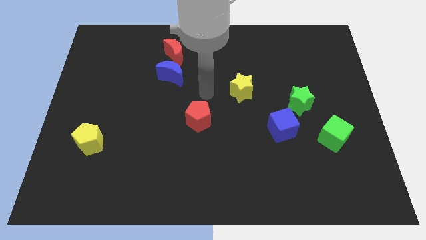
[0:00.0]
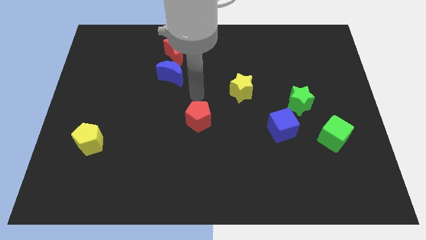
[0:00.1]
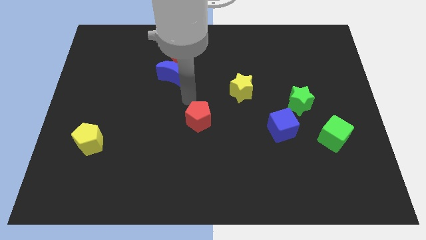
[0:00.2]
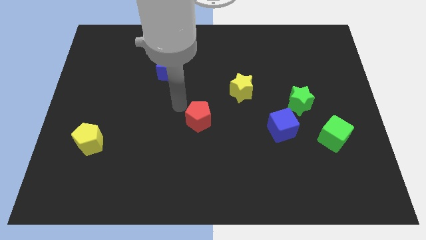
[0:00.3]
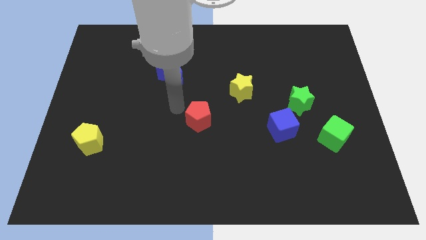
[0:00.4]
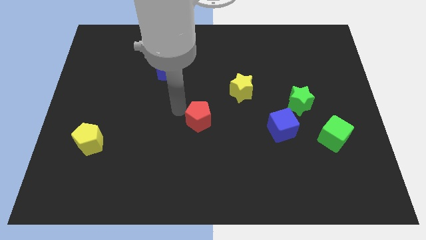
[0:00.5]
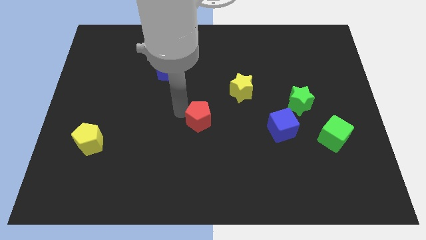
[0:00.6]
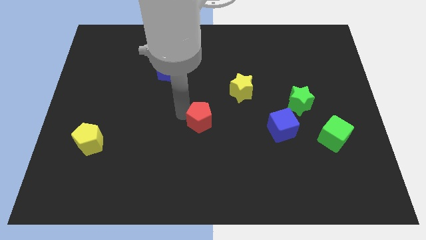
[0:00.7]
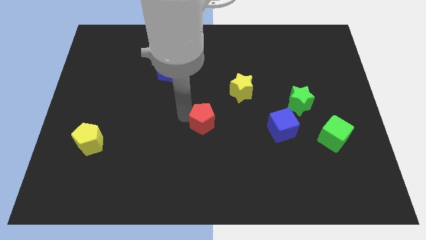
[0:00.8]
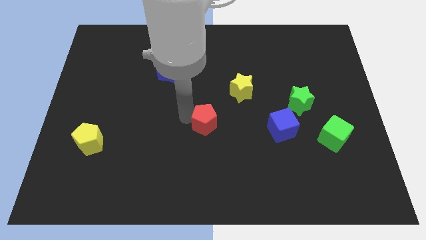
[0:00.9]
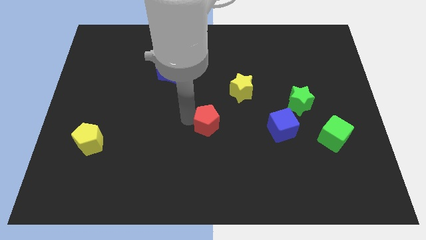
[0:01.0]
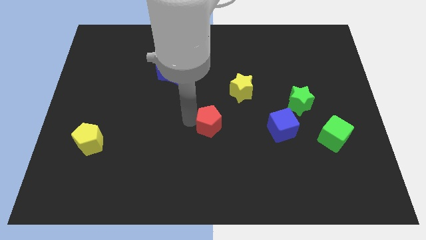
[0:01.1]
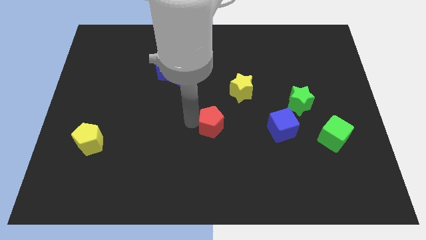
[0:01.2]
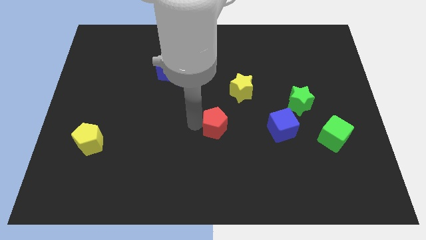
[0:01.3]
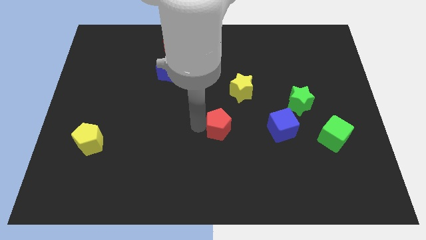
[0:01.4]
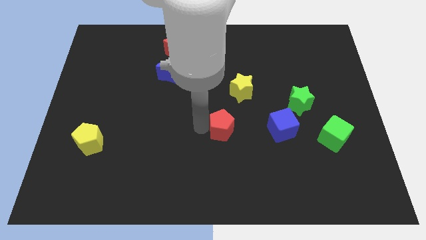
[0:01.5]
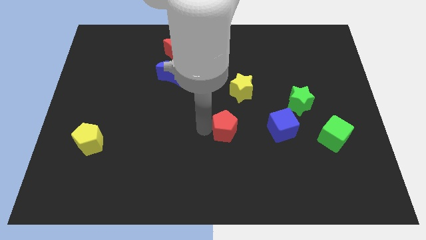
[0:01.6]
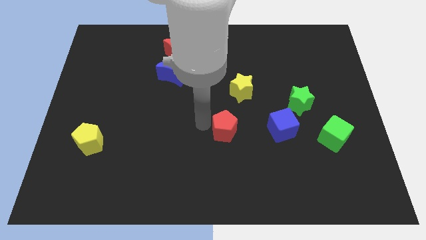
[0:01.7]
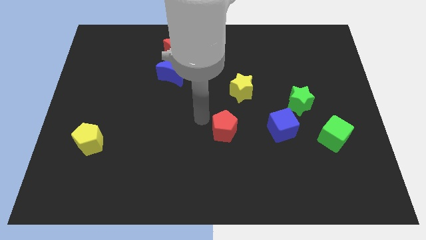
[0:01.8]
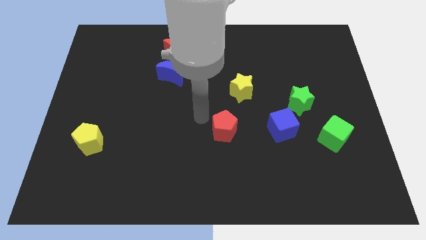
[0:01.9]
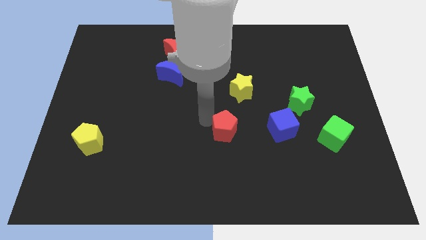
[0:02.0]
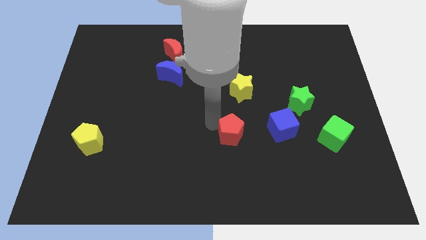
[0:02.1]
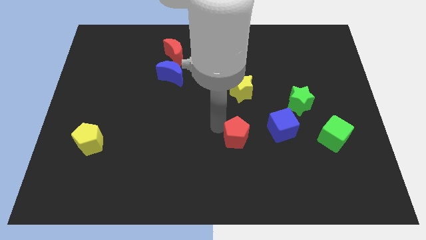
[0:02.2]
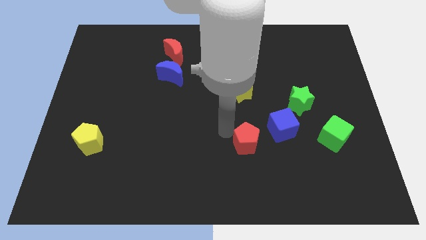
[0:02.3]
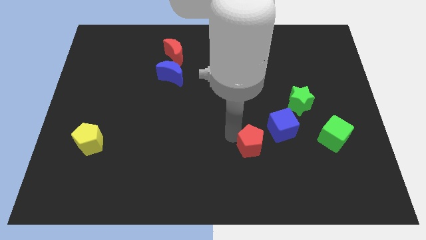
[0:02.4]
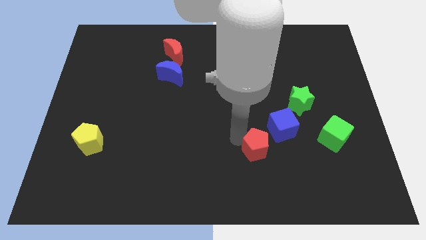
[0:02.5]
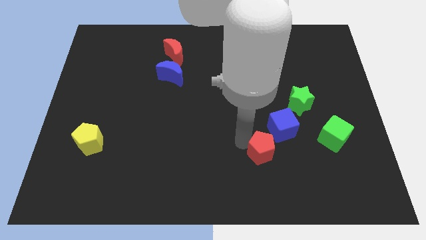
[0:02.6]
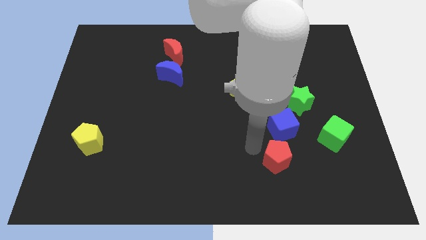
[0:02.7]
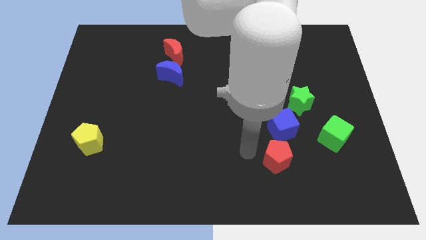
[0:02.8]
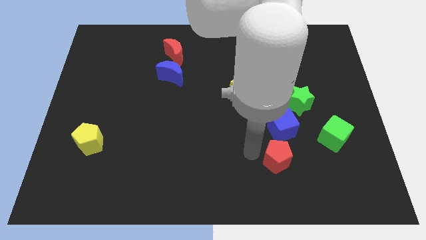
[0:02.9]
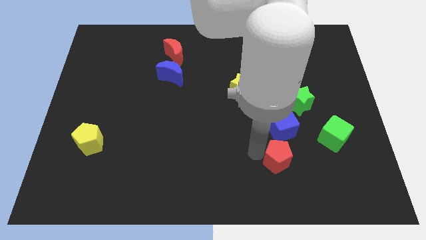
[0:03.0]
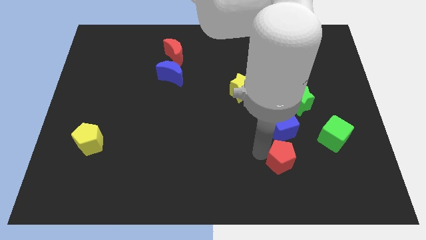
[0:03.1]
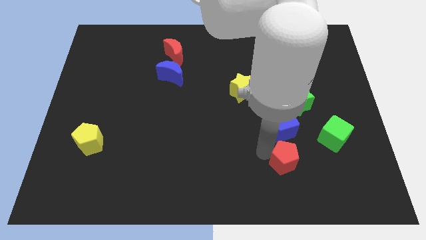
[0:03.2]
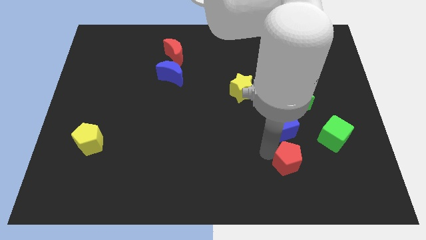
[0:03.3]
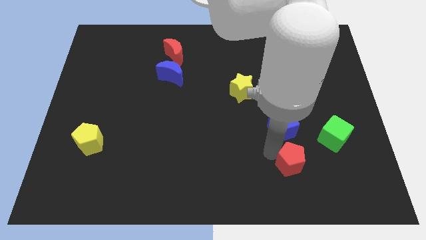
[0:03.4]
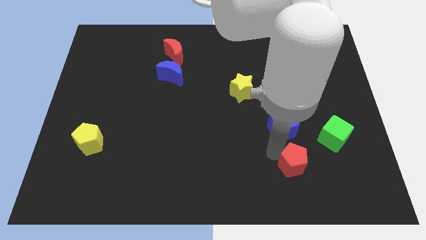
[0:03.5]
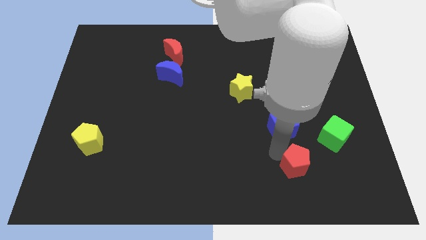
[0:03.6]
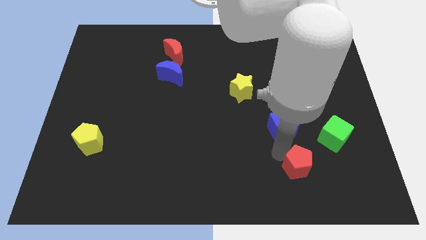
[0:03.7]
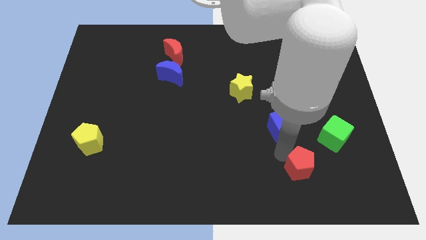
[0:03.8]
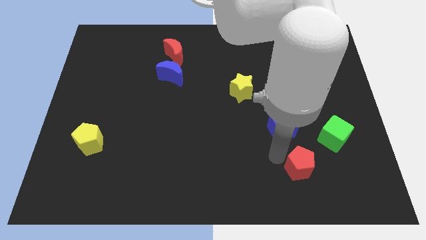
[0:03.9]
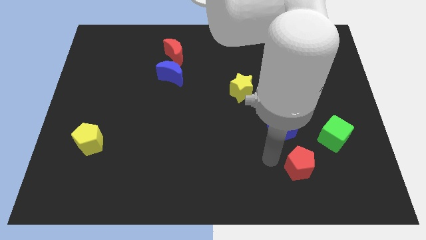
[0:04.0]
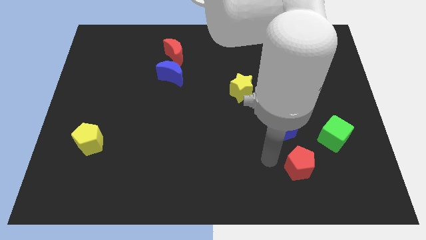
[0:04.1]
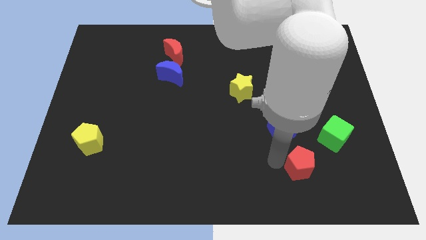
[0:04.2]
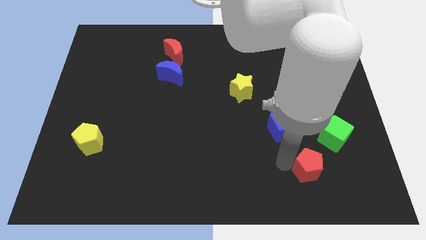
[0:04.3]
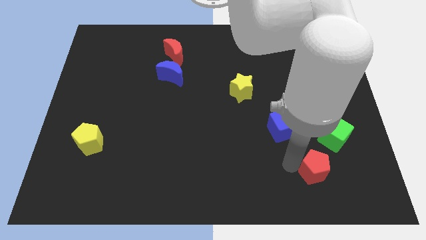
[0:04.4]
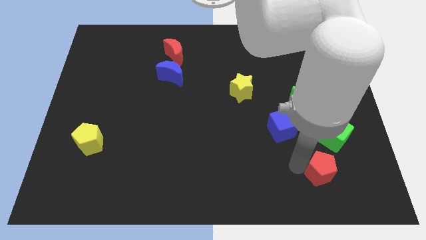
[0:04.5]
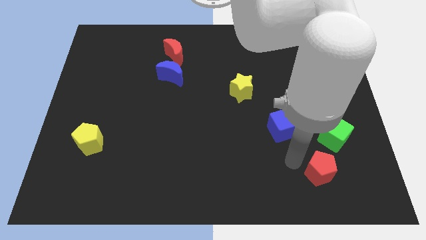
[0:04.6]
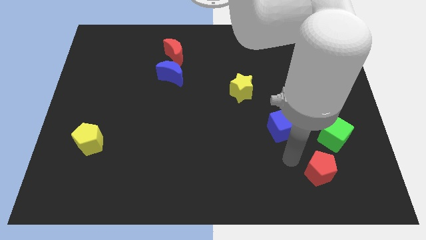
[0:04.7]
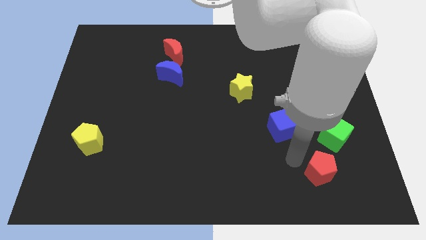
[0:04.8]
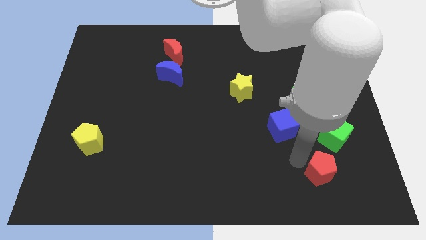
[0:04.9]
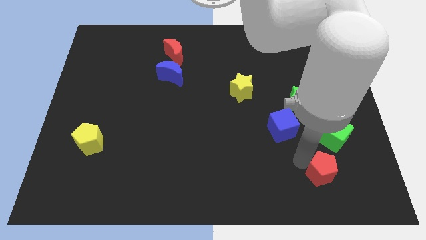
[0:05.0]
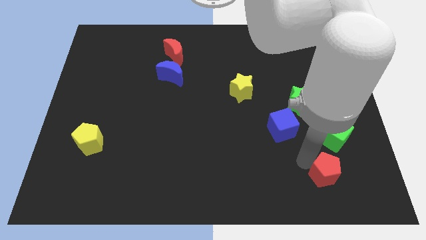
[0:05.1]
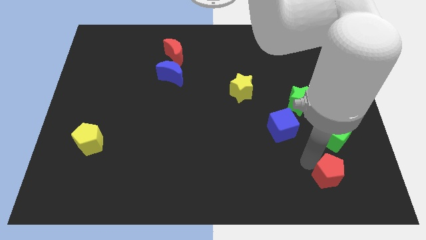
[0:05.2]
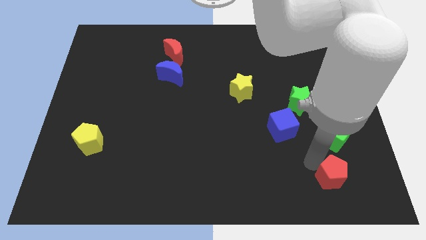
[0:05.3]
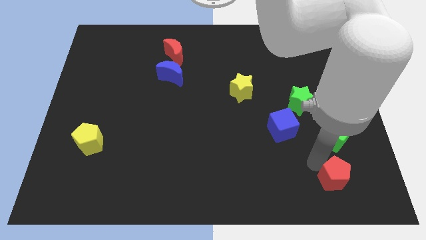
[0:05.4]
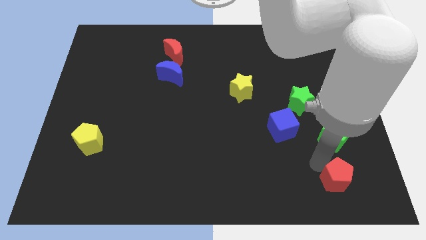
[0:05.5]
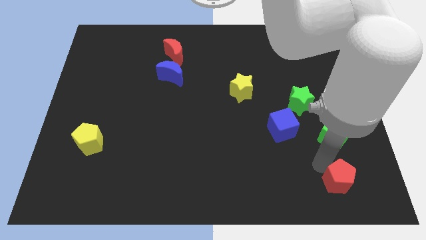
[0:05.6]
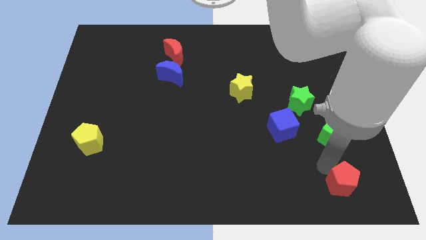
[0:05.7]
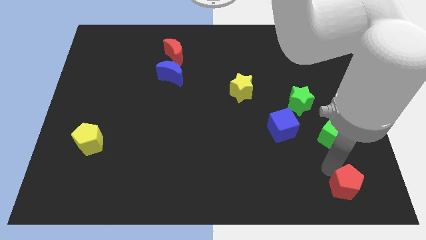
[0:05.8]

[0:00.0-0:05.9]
move the red pentagon to the bottom right of the board

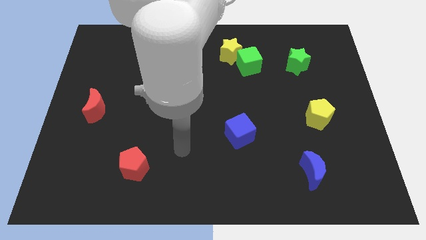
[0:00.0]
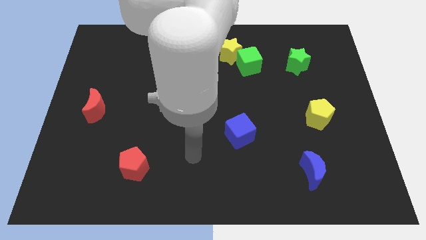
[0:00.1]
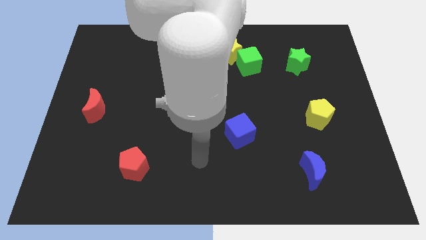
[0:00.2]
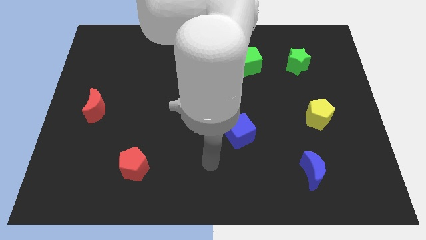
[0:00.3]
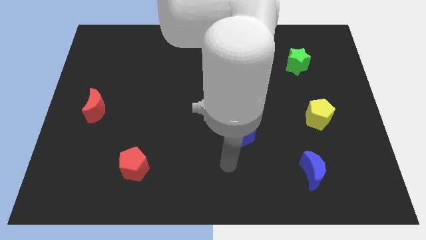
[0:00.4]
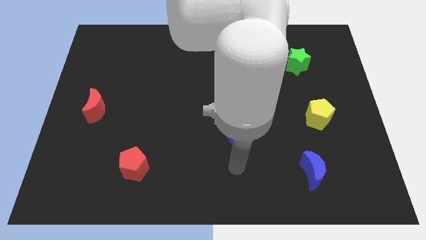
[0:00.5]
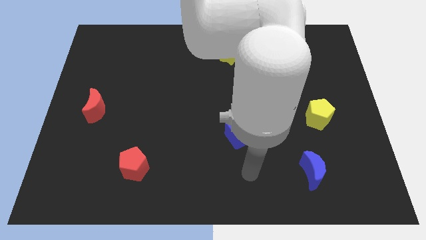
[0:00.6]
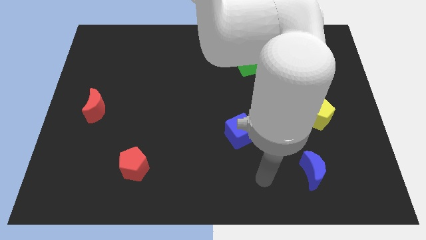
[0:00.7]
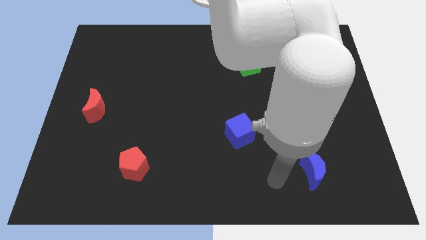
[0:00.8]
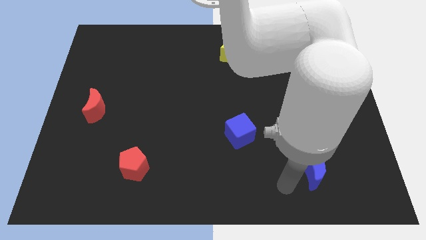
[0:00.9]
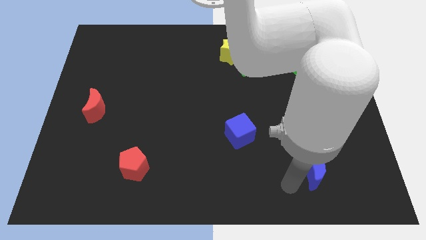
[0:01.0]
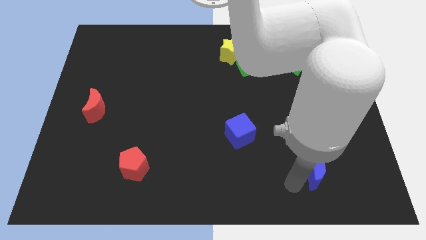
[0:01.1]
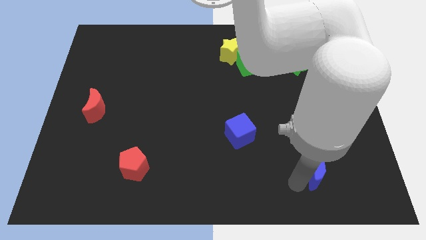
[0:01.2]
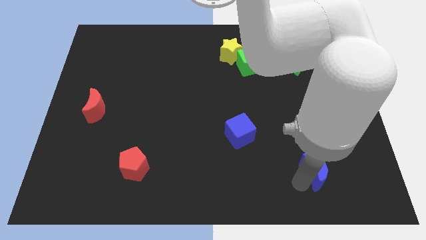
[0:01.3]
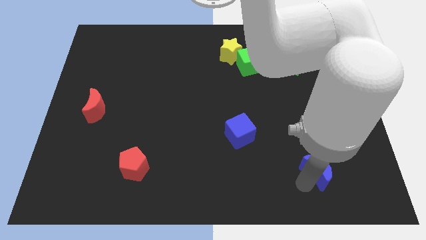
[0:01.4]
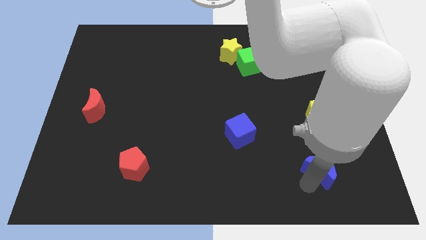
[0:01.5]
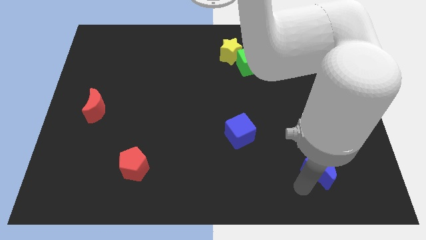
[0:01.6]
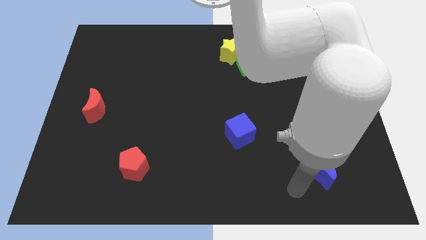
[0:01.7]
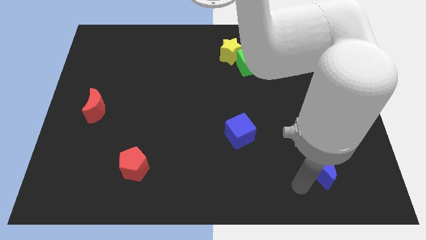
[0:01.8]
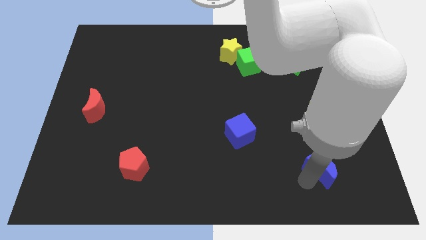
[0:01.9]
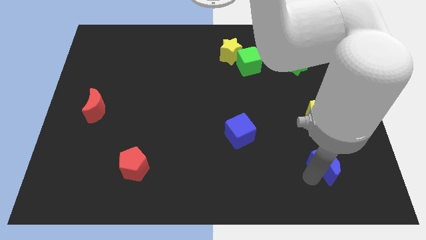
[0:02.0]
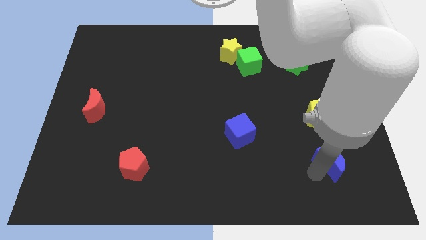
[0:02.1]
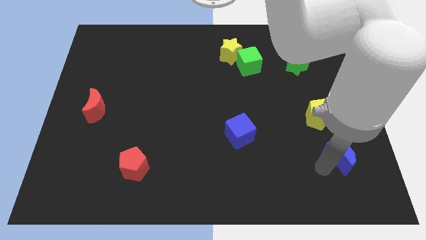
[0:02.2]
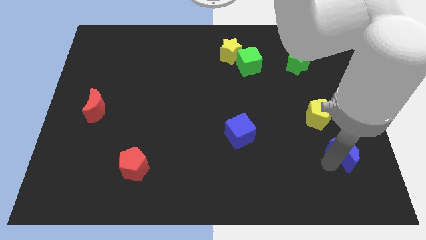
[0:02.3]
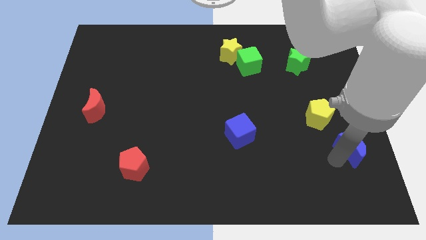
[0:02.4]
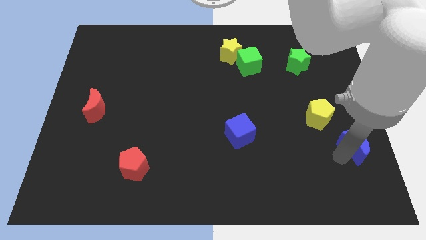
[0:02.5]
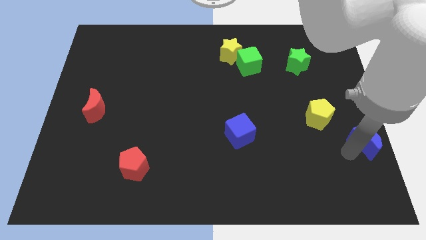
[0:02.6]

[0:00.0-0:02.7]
put the blue moon to the right side of the board
